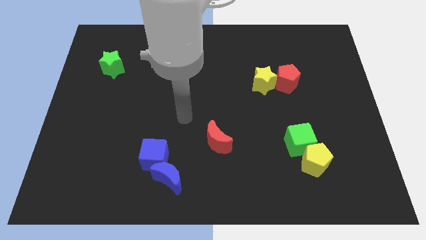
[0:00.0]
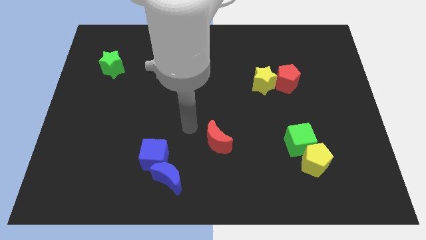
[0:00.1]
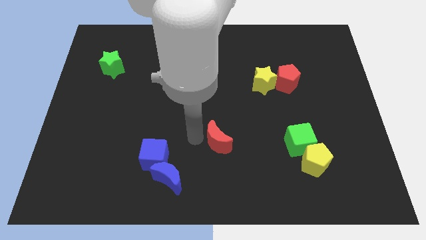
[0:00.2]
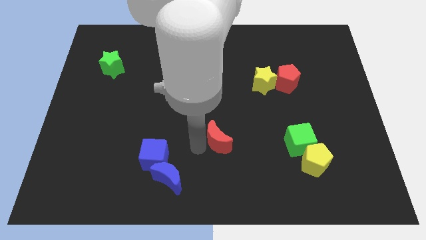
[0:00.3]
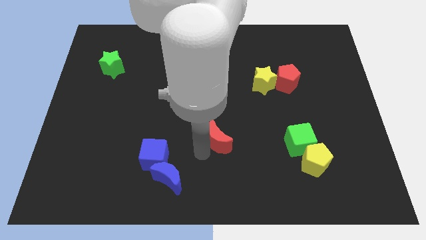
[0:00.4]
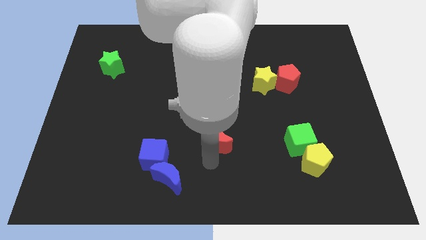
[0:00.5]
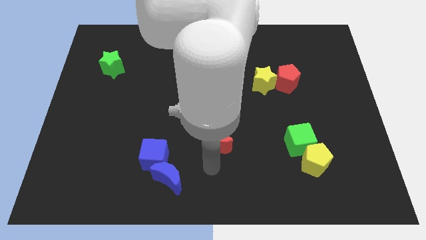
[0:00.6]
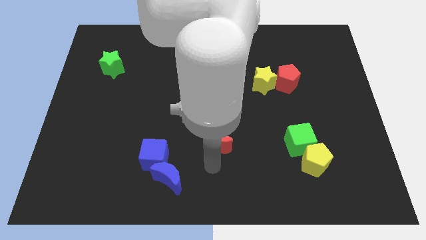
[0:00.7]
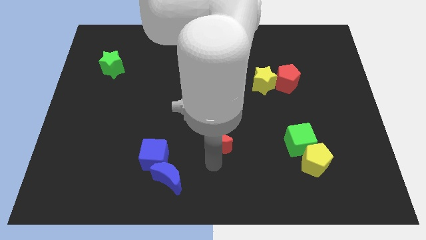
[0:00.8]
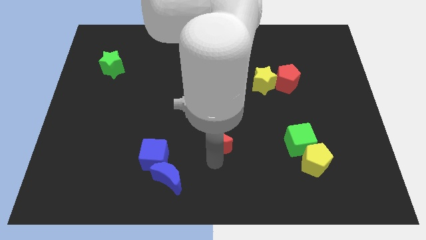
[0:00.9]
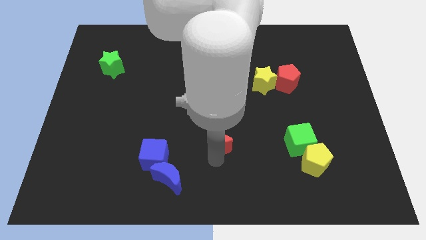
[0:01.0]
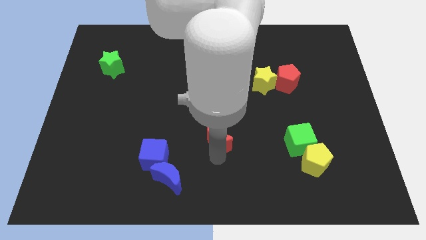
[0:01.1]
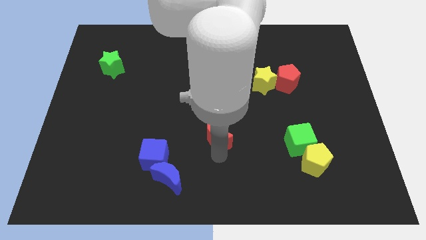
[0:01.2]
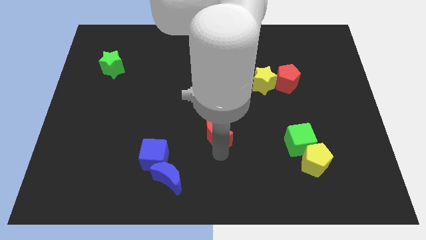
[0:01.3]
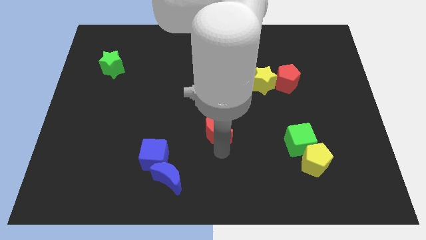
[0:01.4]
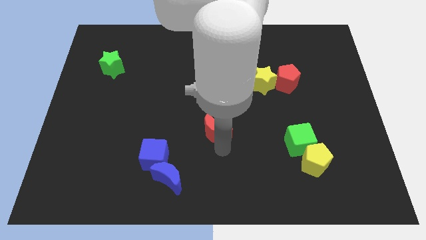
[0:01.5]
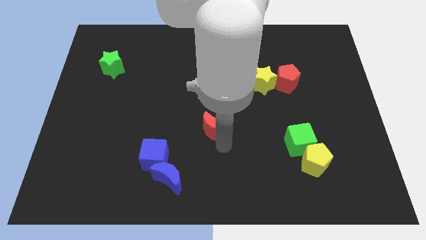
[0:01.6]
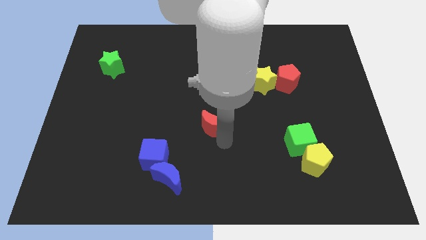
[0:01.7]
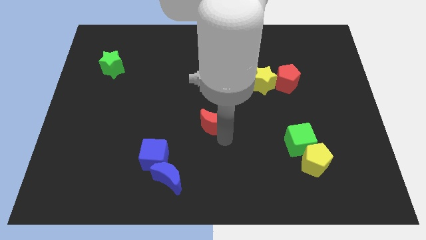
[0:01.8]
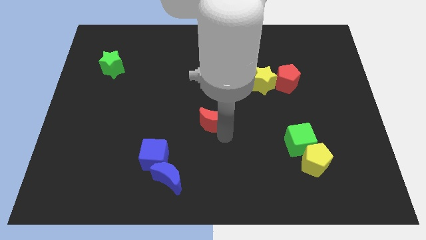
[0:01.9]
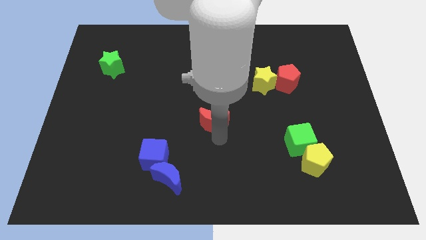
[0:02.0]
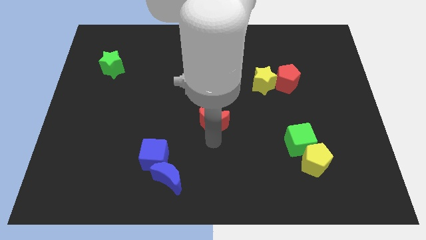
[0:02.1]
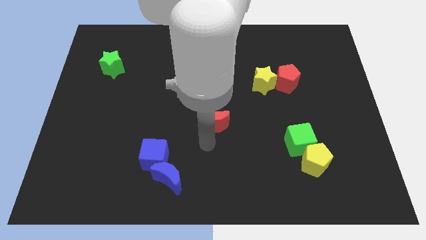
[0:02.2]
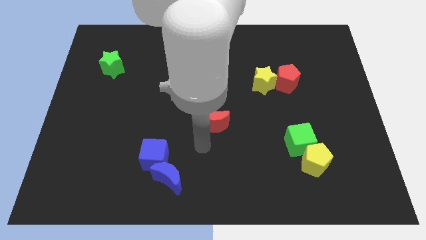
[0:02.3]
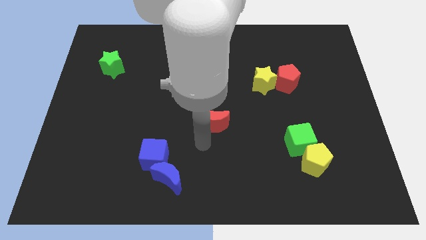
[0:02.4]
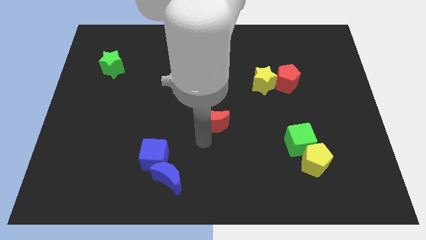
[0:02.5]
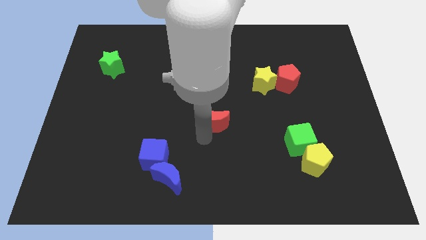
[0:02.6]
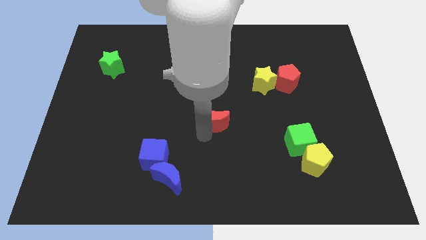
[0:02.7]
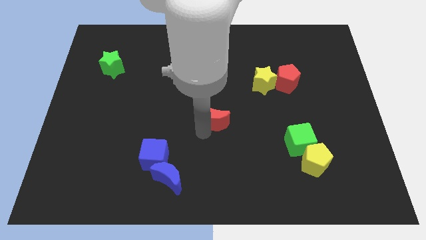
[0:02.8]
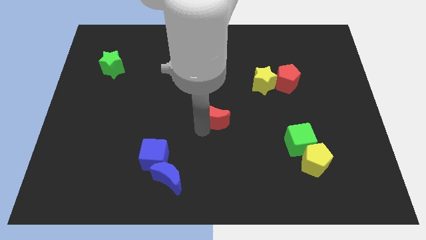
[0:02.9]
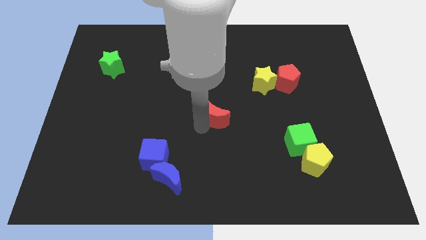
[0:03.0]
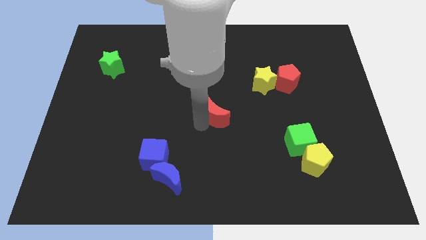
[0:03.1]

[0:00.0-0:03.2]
move the red moon upwards a little

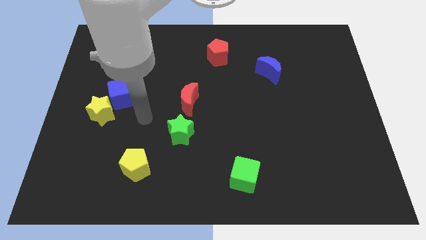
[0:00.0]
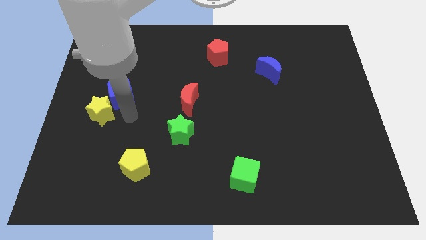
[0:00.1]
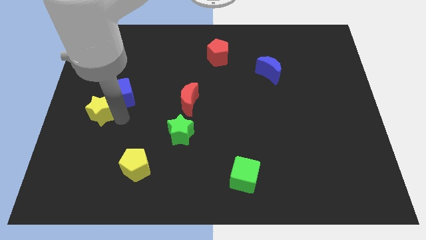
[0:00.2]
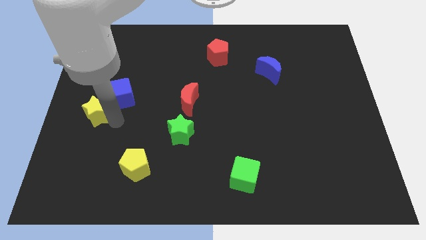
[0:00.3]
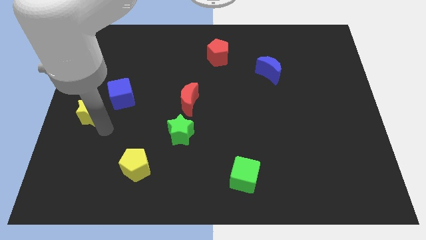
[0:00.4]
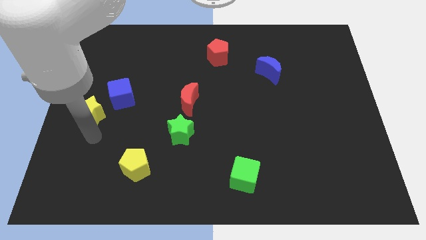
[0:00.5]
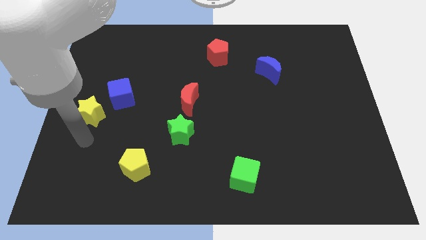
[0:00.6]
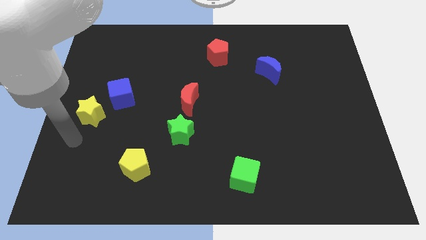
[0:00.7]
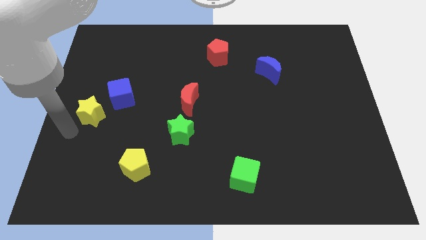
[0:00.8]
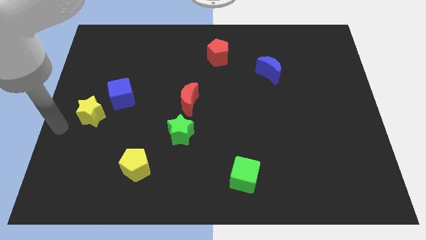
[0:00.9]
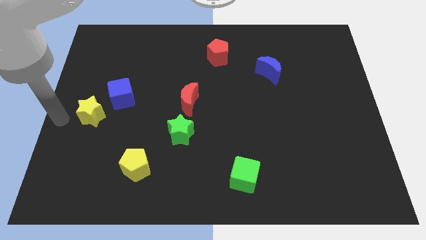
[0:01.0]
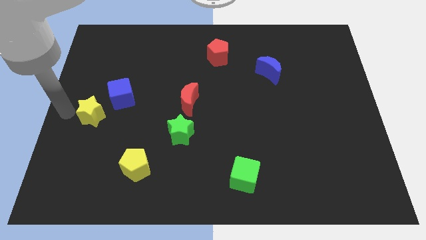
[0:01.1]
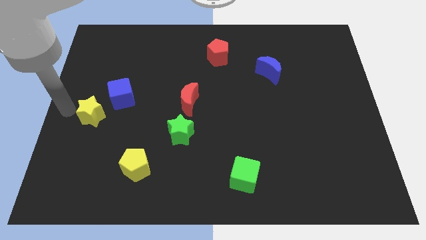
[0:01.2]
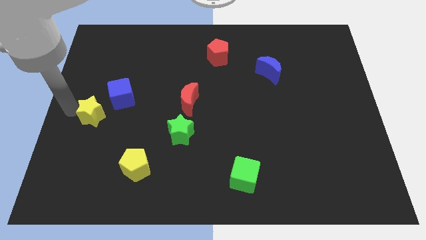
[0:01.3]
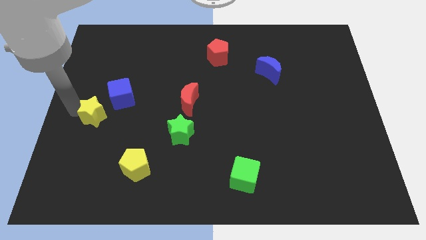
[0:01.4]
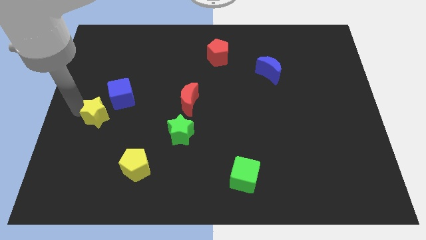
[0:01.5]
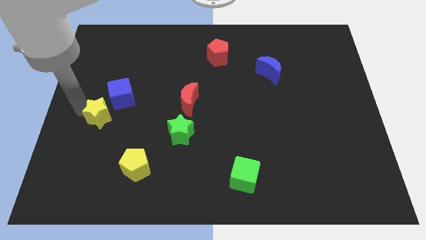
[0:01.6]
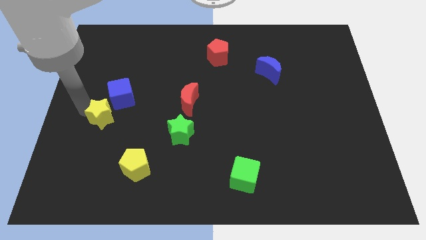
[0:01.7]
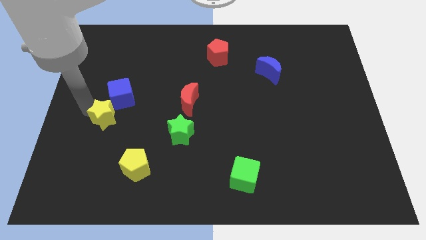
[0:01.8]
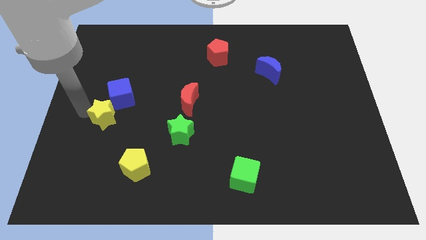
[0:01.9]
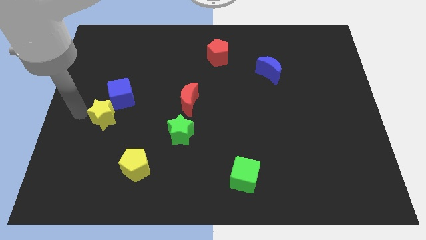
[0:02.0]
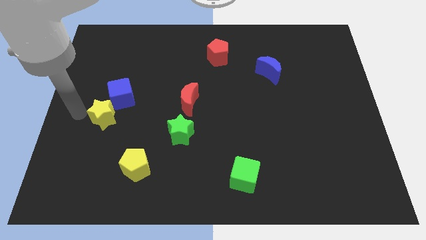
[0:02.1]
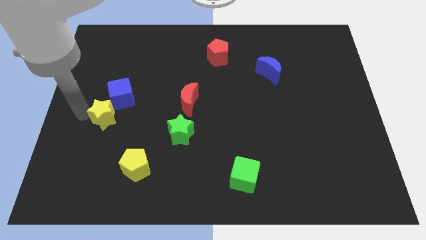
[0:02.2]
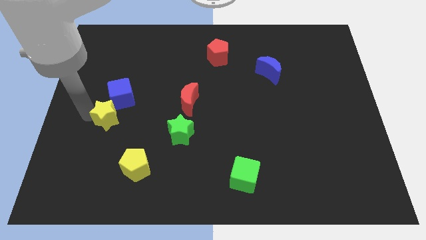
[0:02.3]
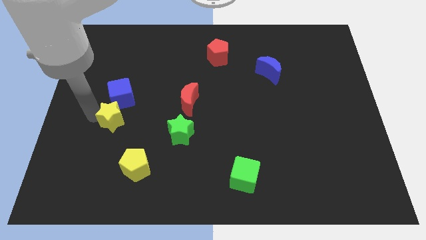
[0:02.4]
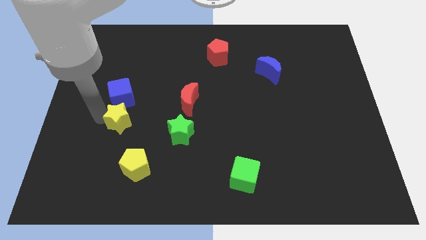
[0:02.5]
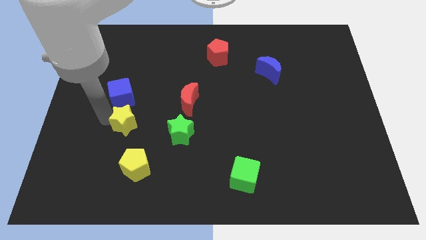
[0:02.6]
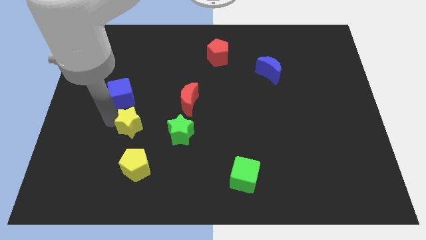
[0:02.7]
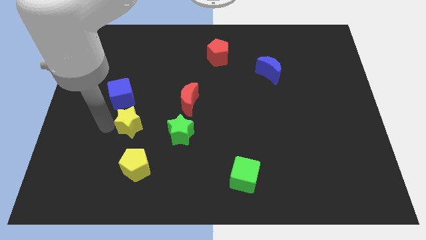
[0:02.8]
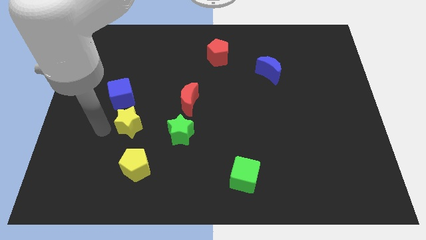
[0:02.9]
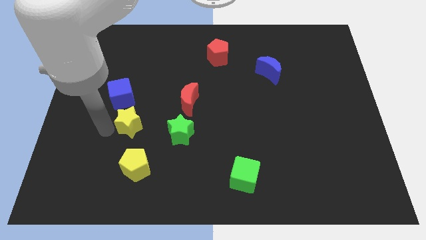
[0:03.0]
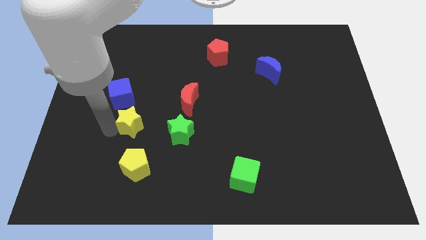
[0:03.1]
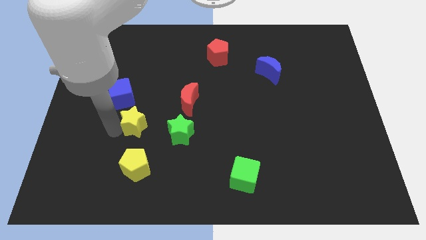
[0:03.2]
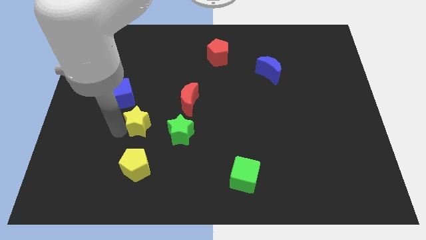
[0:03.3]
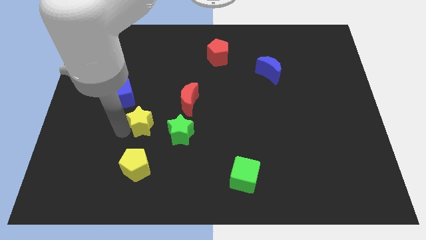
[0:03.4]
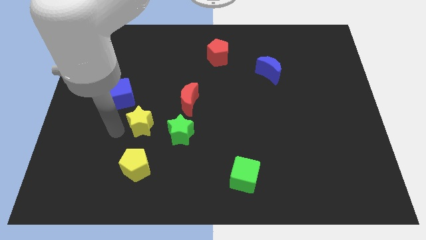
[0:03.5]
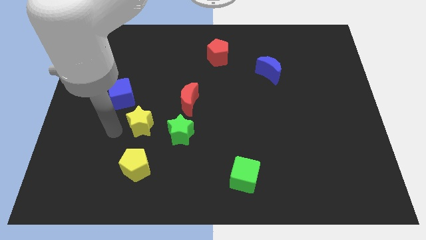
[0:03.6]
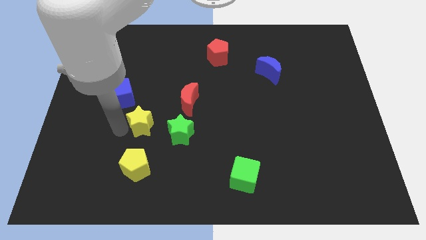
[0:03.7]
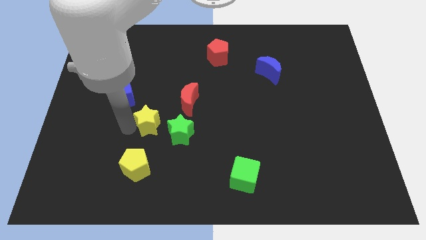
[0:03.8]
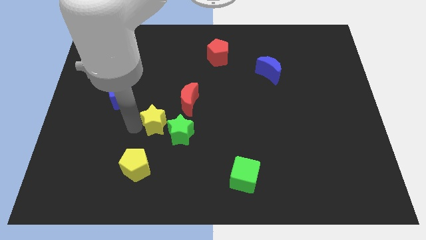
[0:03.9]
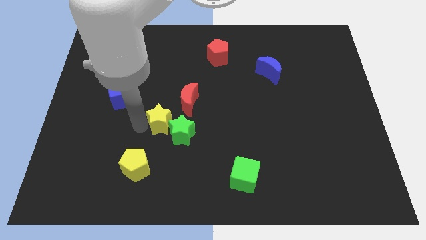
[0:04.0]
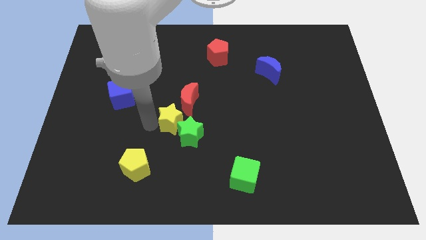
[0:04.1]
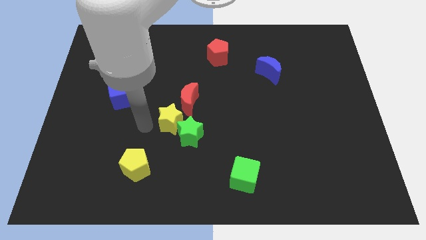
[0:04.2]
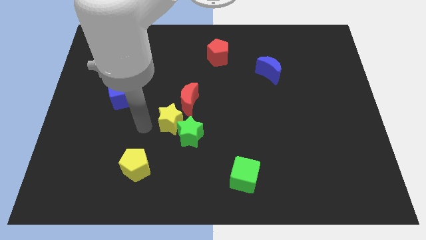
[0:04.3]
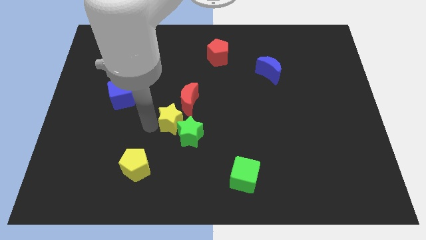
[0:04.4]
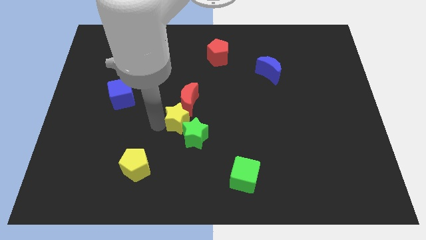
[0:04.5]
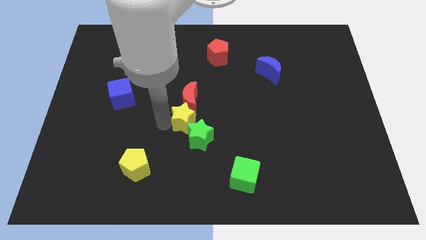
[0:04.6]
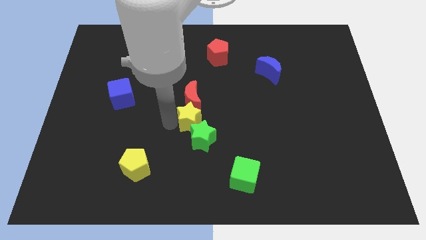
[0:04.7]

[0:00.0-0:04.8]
push the yellow star to the right
